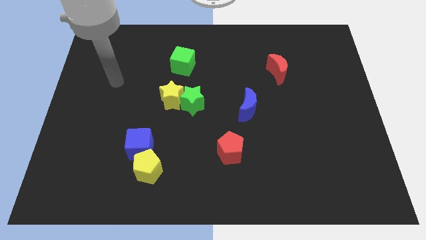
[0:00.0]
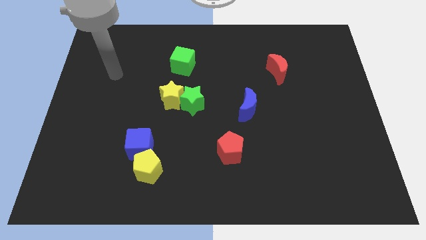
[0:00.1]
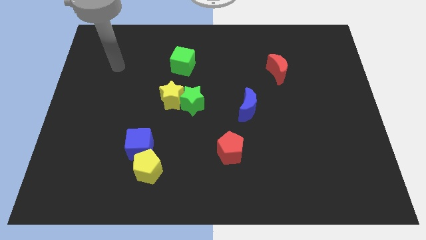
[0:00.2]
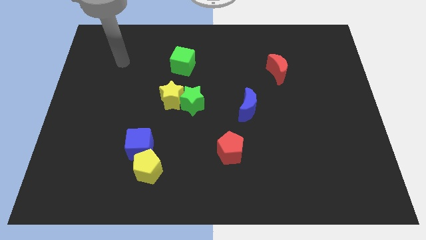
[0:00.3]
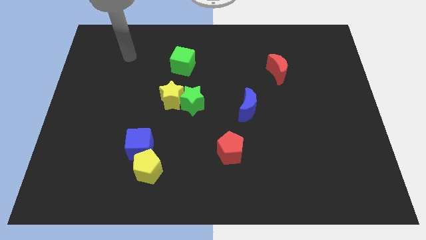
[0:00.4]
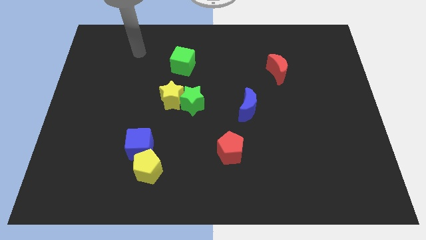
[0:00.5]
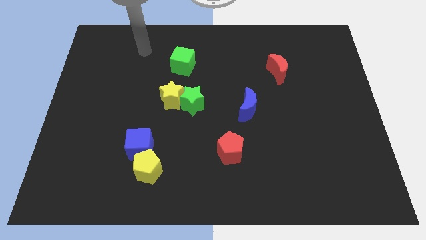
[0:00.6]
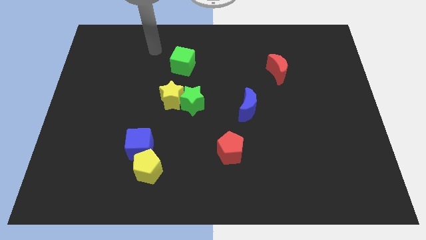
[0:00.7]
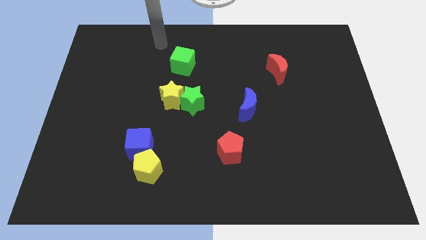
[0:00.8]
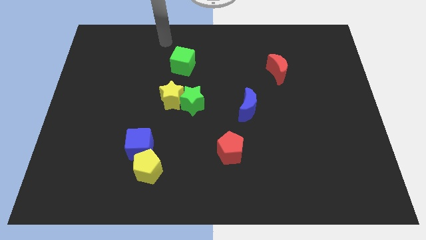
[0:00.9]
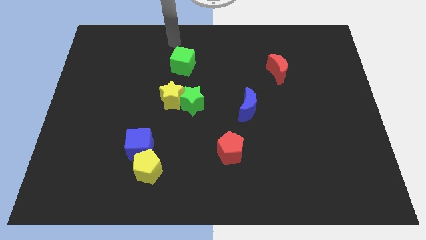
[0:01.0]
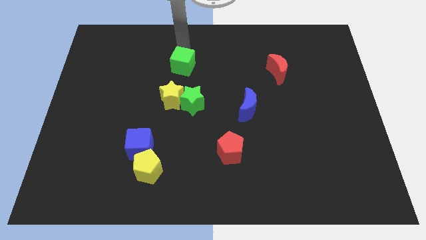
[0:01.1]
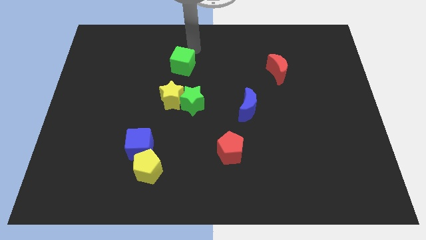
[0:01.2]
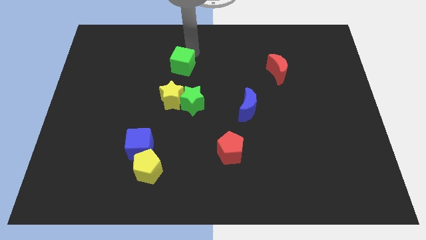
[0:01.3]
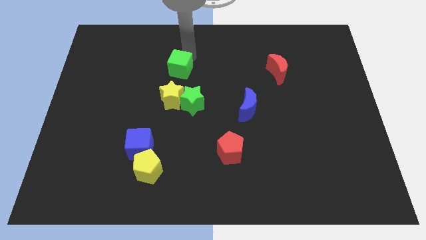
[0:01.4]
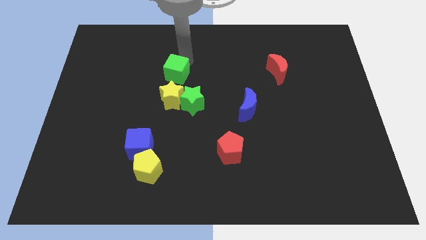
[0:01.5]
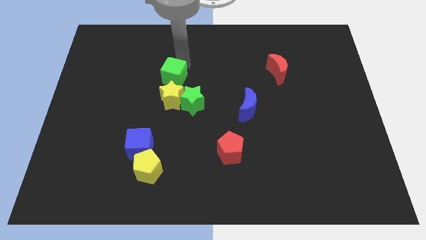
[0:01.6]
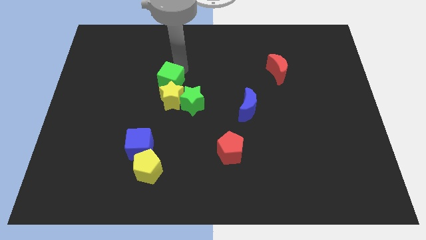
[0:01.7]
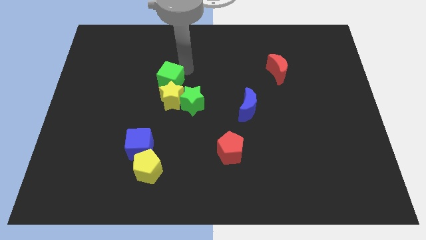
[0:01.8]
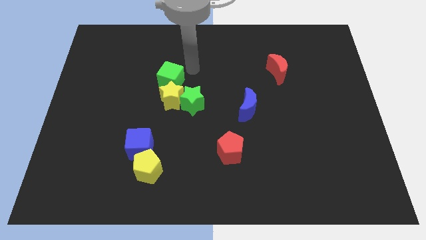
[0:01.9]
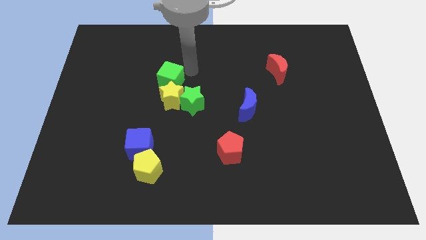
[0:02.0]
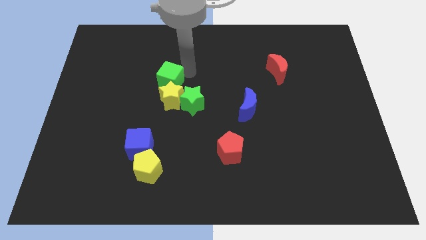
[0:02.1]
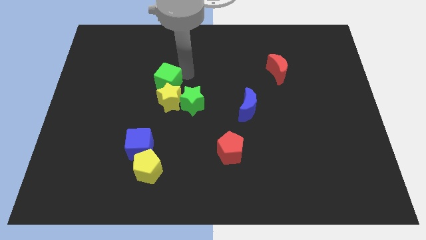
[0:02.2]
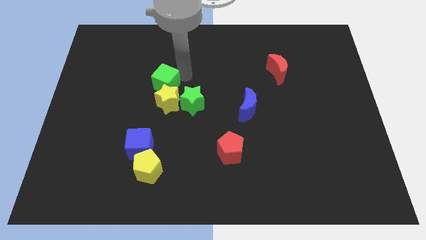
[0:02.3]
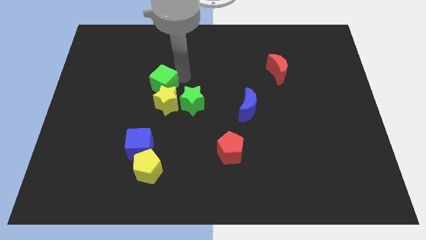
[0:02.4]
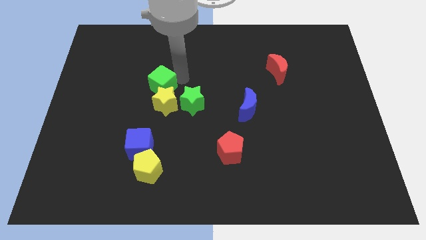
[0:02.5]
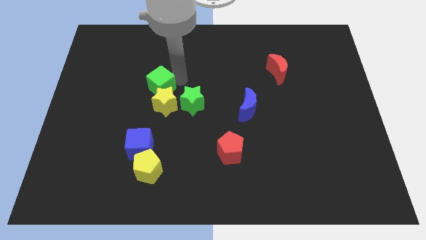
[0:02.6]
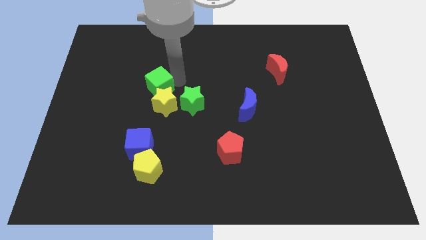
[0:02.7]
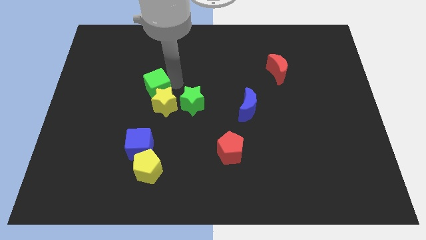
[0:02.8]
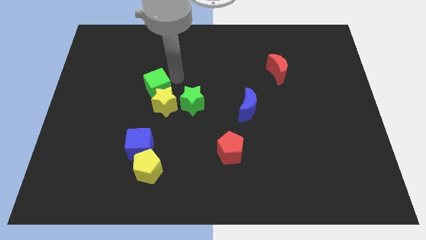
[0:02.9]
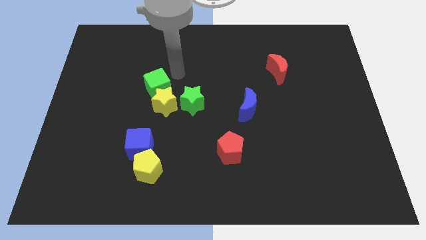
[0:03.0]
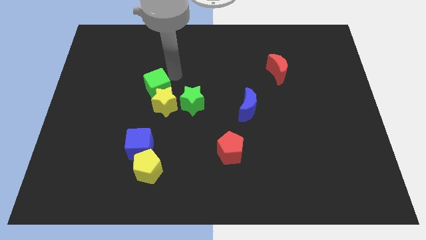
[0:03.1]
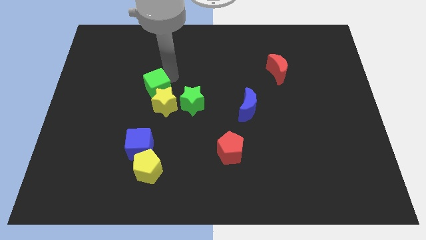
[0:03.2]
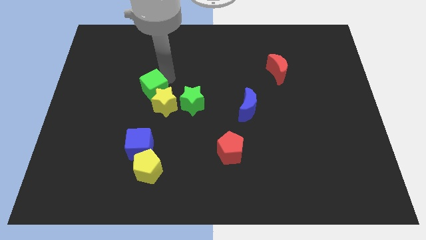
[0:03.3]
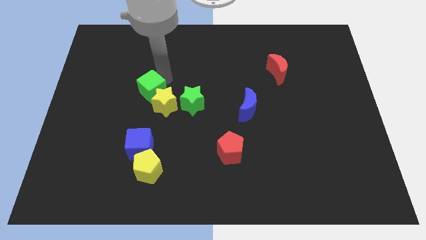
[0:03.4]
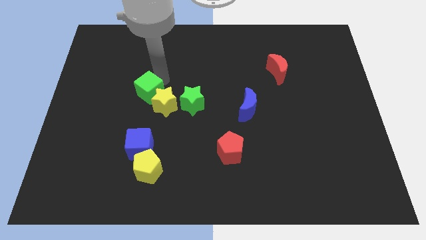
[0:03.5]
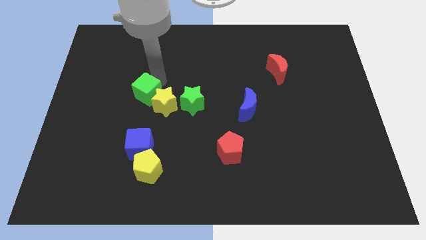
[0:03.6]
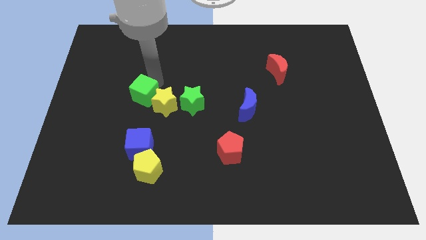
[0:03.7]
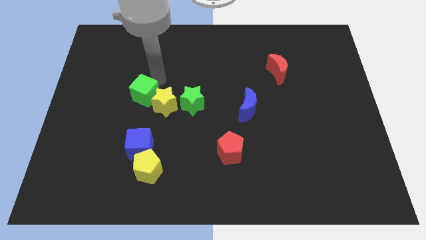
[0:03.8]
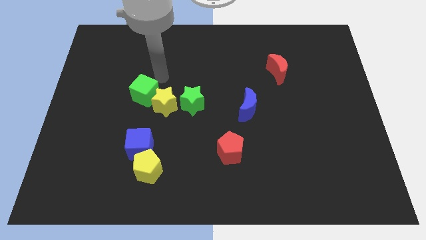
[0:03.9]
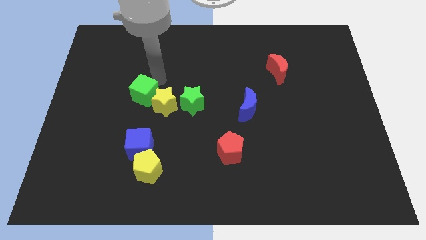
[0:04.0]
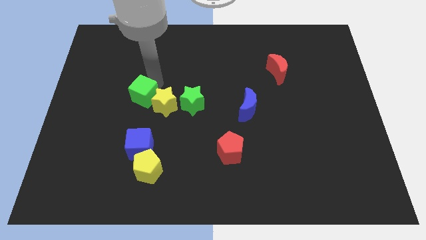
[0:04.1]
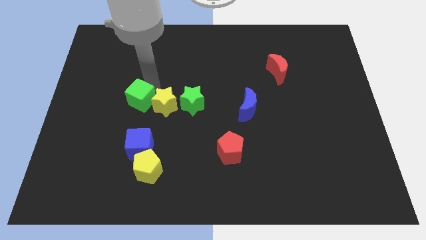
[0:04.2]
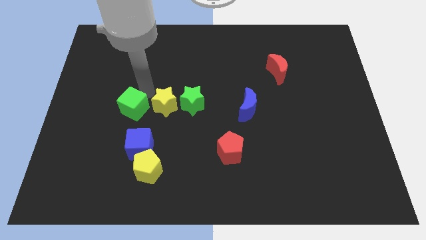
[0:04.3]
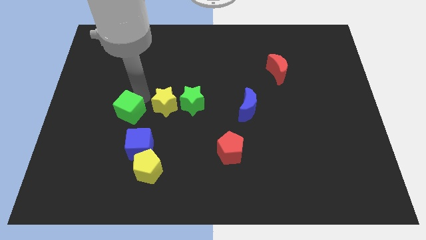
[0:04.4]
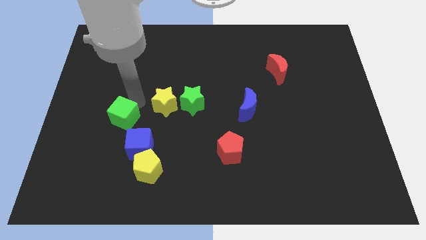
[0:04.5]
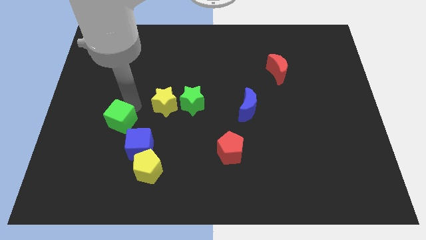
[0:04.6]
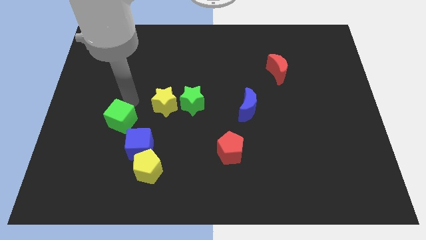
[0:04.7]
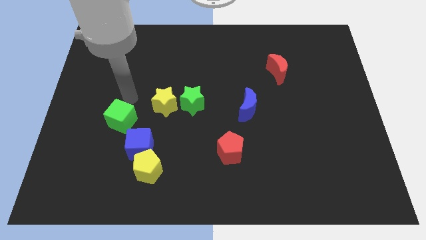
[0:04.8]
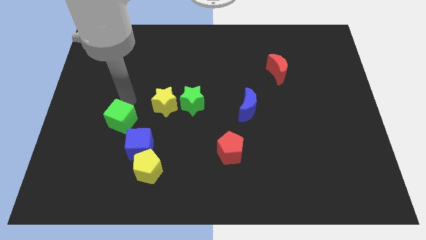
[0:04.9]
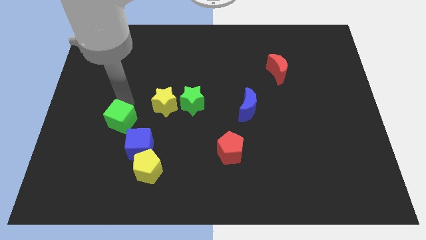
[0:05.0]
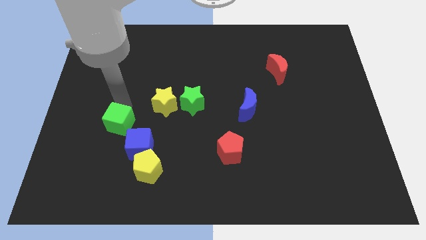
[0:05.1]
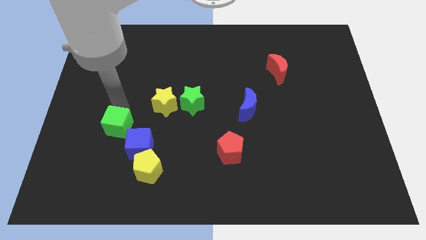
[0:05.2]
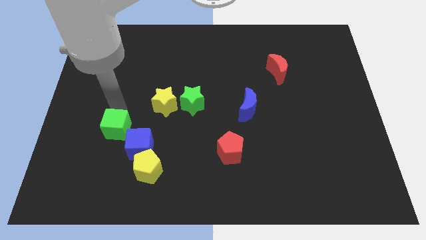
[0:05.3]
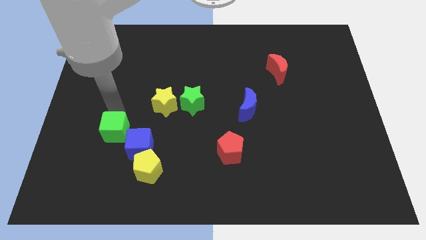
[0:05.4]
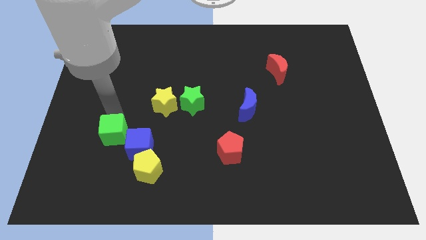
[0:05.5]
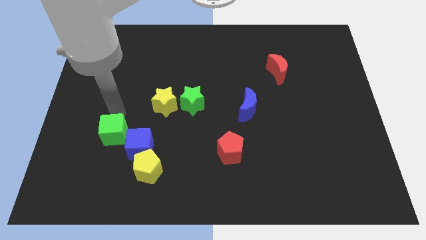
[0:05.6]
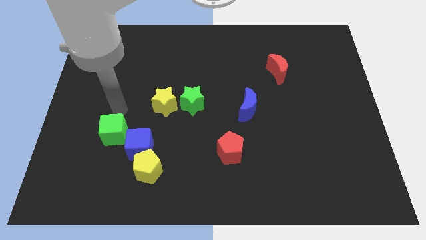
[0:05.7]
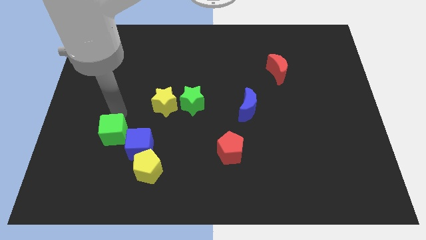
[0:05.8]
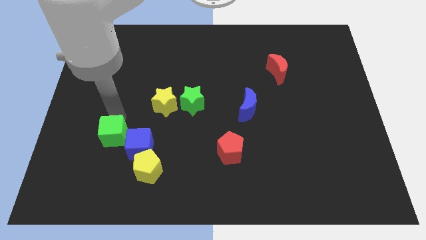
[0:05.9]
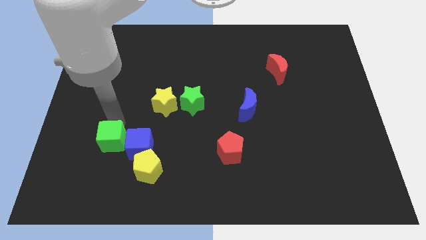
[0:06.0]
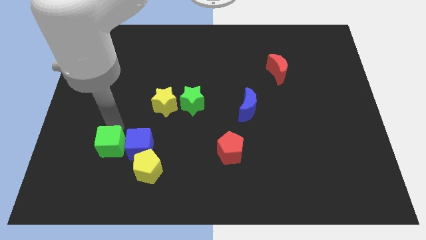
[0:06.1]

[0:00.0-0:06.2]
push the green cube to the bottom left of the blue cube
